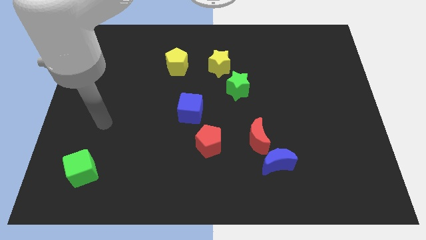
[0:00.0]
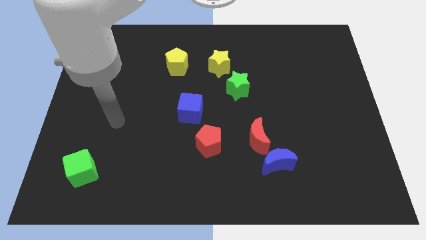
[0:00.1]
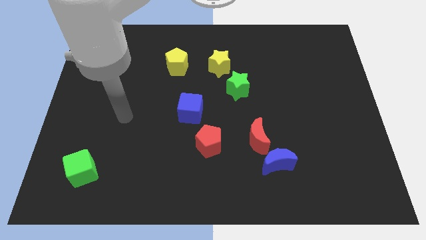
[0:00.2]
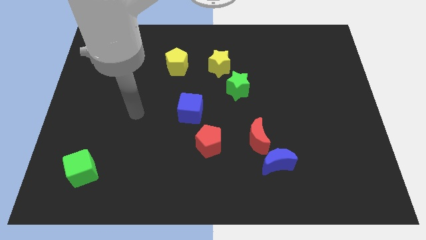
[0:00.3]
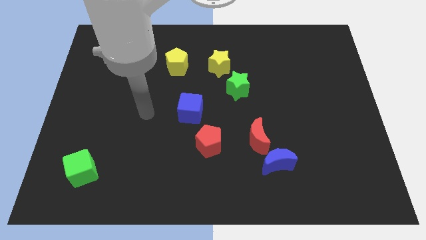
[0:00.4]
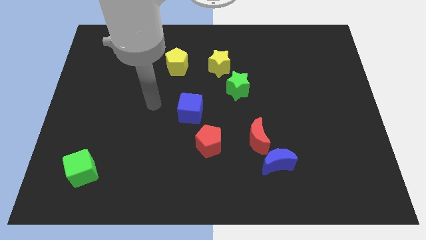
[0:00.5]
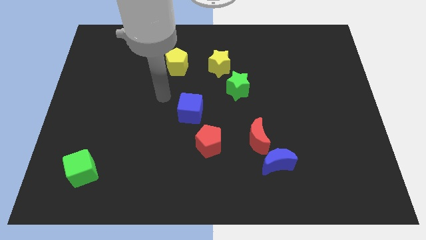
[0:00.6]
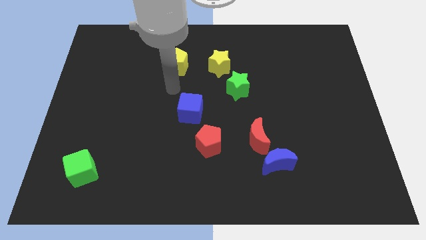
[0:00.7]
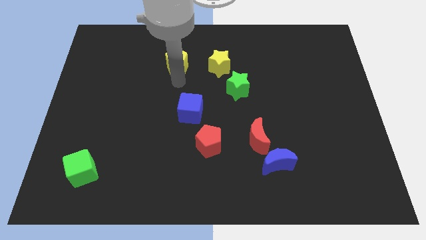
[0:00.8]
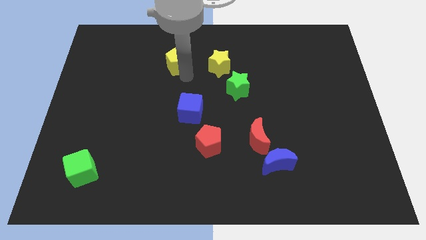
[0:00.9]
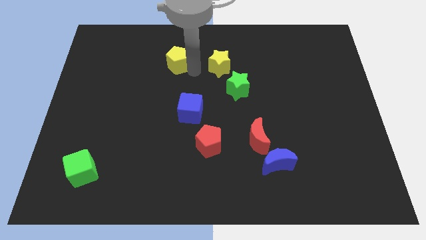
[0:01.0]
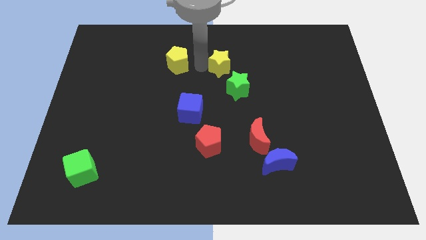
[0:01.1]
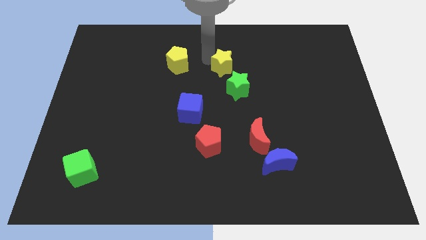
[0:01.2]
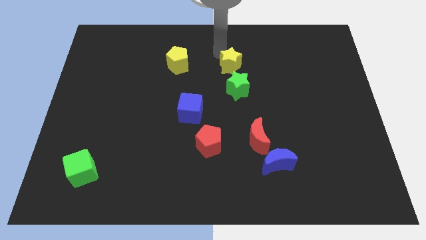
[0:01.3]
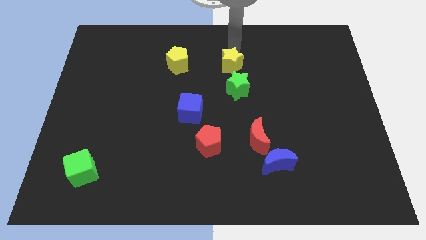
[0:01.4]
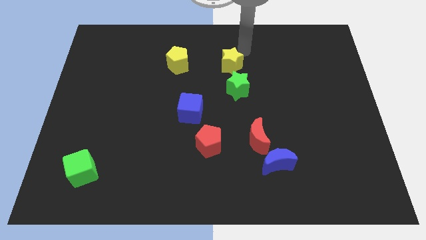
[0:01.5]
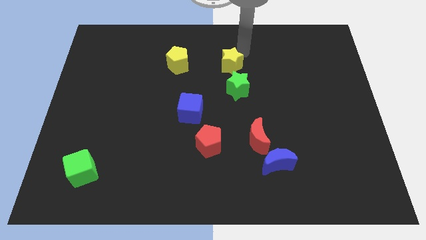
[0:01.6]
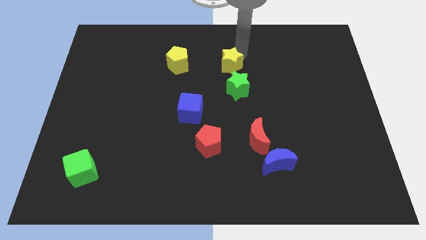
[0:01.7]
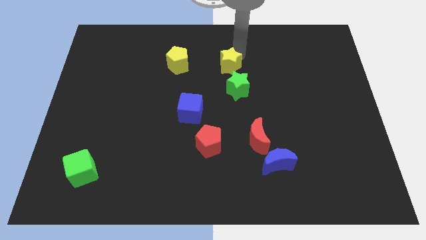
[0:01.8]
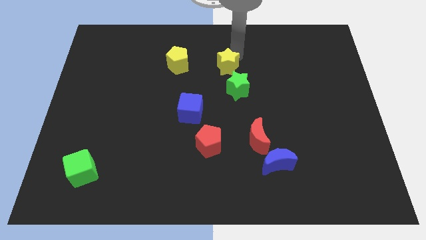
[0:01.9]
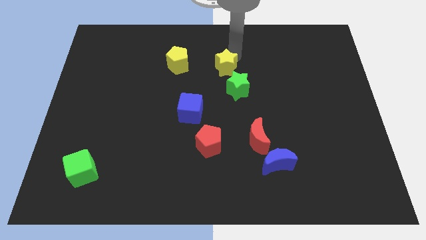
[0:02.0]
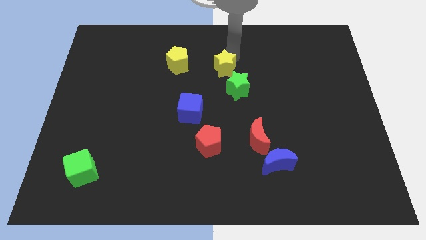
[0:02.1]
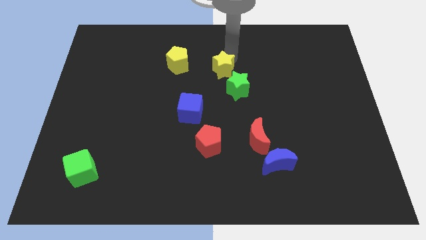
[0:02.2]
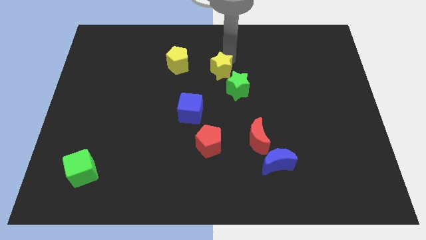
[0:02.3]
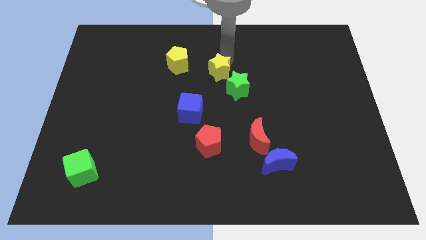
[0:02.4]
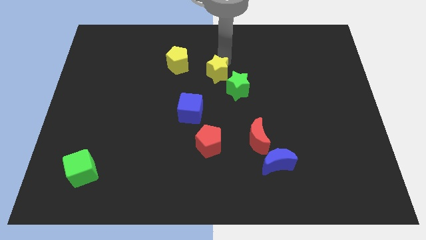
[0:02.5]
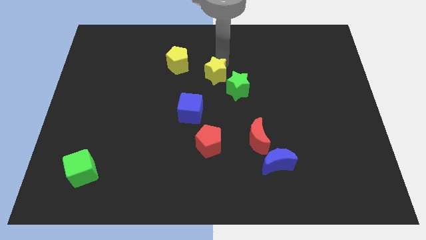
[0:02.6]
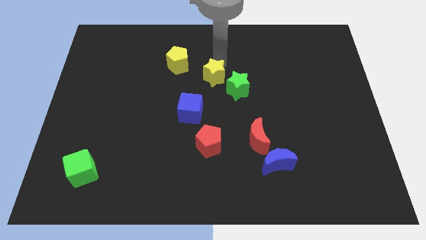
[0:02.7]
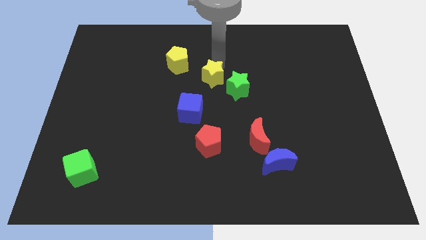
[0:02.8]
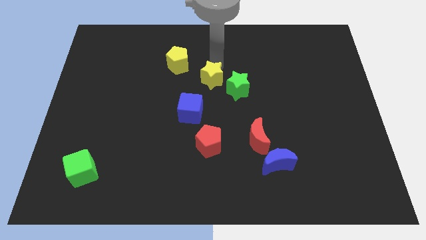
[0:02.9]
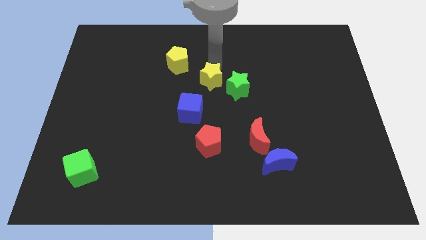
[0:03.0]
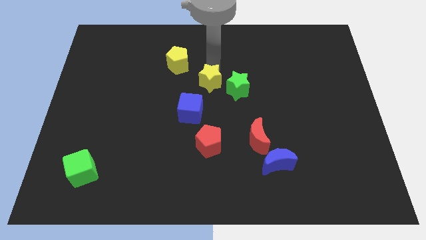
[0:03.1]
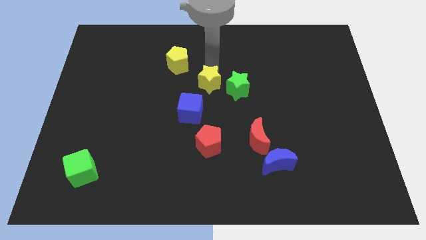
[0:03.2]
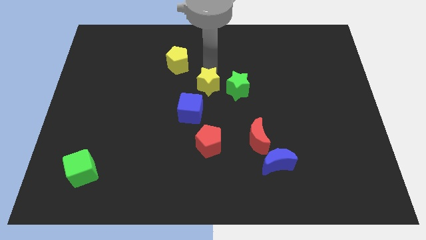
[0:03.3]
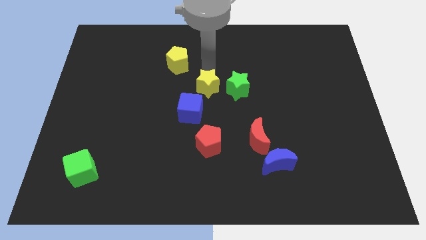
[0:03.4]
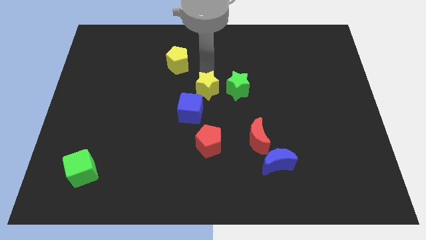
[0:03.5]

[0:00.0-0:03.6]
slide the yellow star somewhat downwards

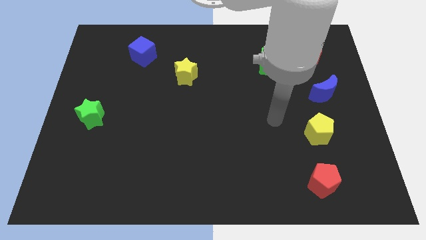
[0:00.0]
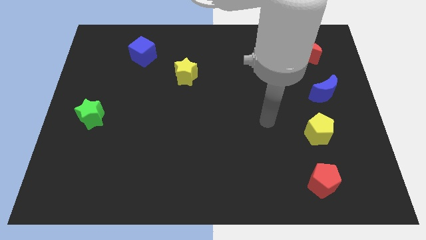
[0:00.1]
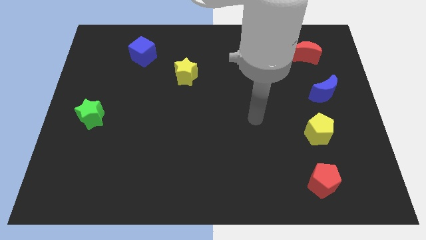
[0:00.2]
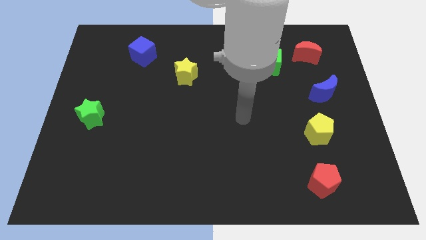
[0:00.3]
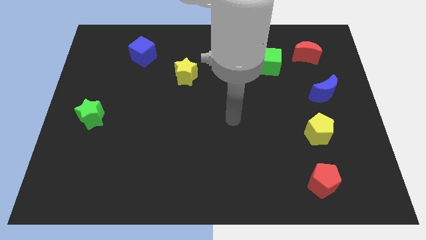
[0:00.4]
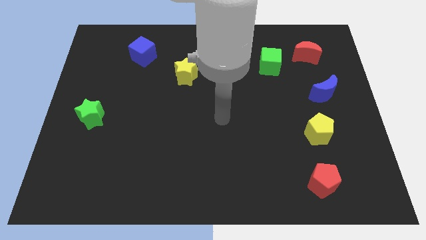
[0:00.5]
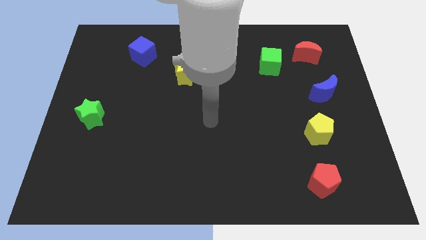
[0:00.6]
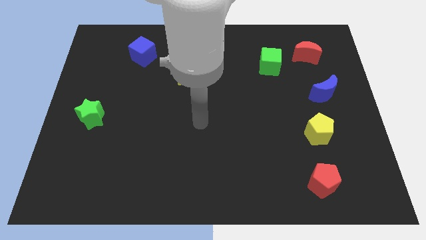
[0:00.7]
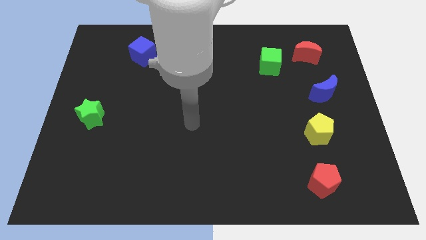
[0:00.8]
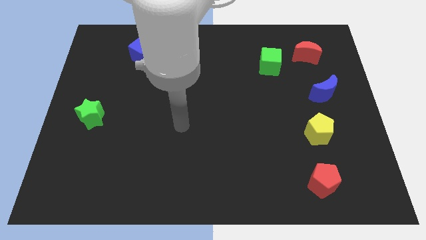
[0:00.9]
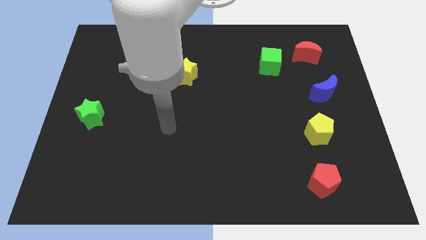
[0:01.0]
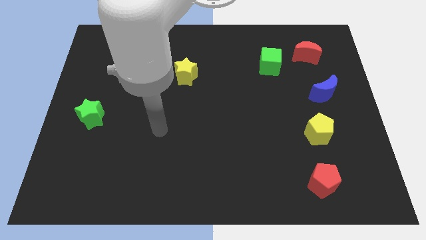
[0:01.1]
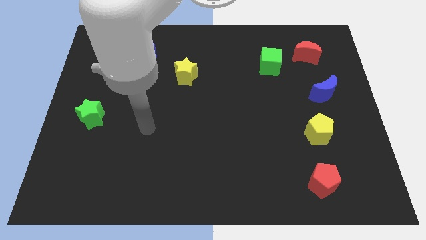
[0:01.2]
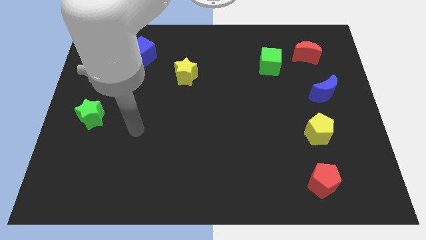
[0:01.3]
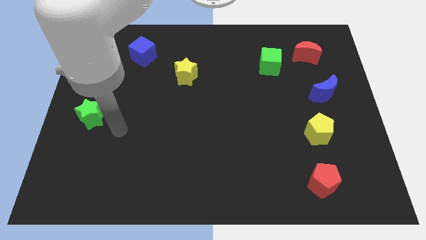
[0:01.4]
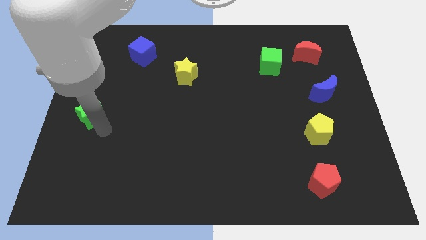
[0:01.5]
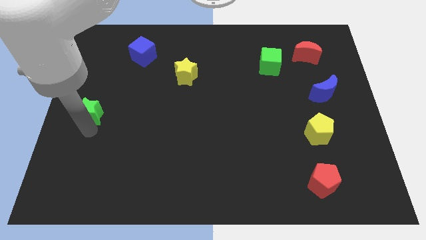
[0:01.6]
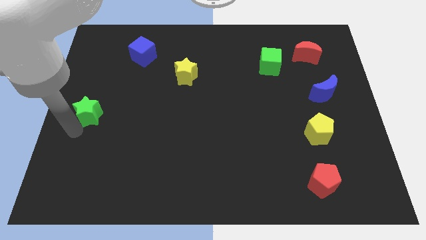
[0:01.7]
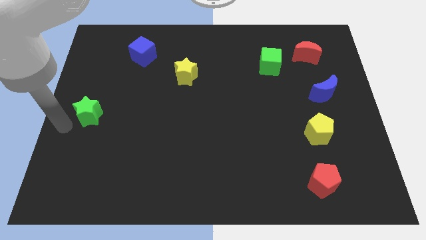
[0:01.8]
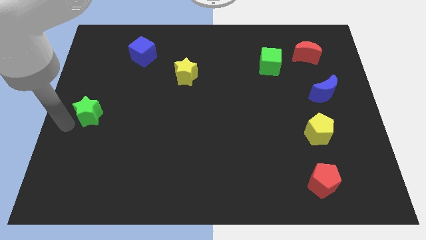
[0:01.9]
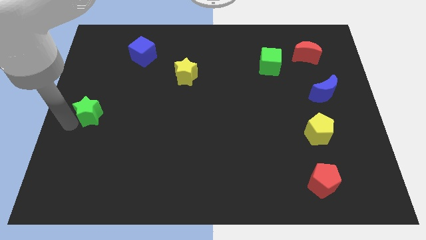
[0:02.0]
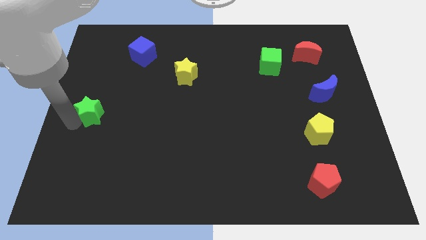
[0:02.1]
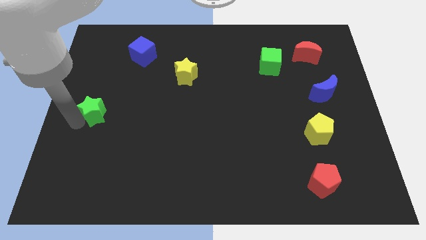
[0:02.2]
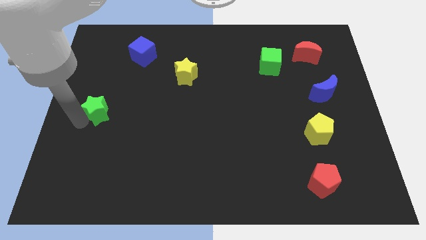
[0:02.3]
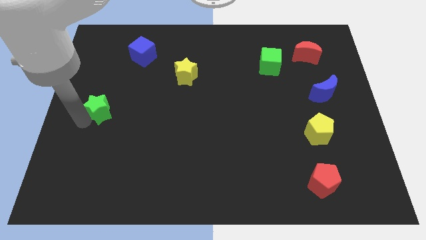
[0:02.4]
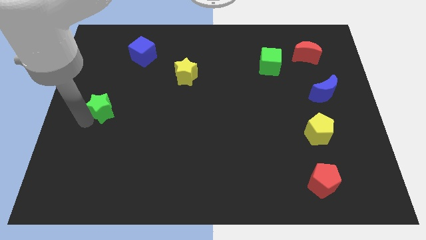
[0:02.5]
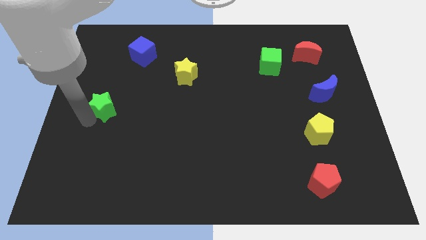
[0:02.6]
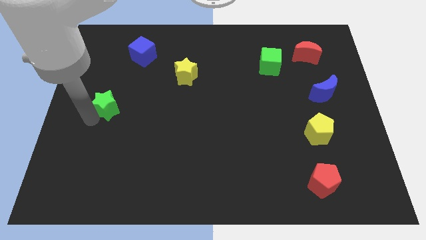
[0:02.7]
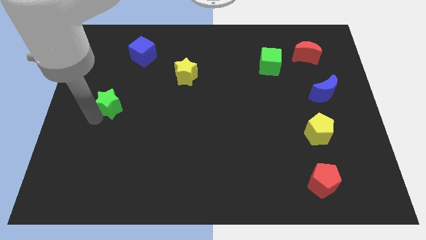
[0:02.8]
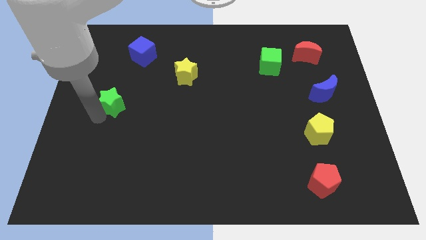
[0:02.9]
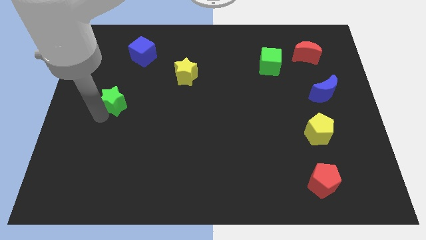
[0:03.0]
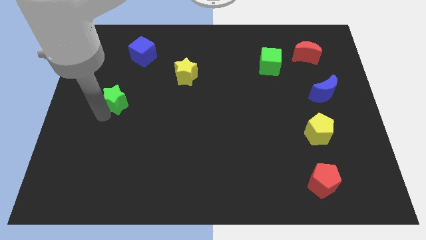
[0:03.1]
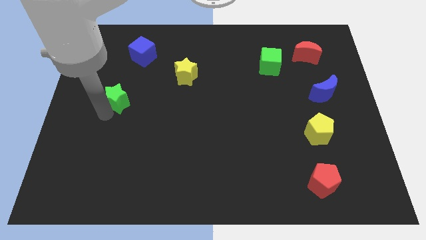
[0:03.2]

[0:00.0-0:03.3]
slightly push the green star upwards and right diagonally

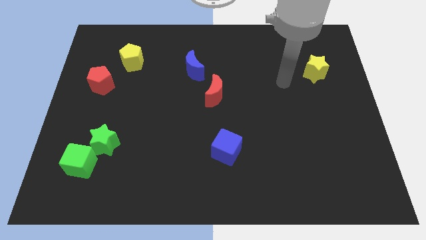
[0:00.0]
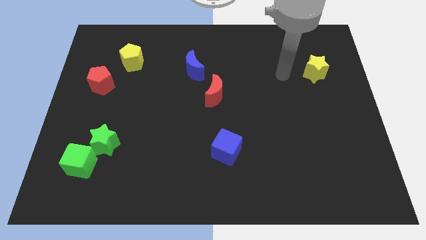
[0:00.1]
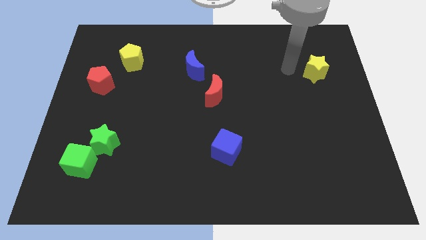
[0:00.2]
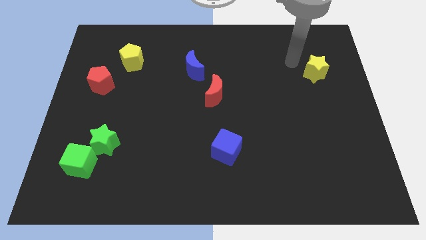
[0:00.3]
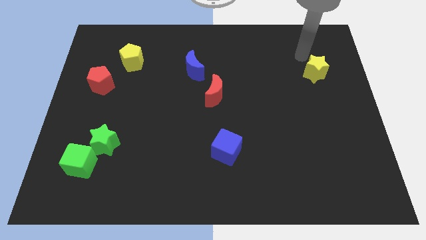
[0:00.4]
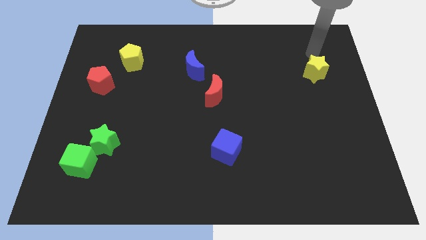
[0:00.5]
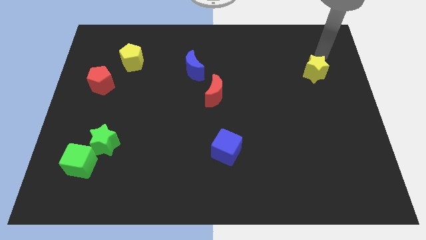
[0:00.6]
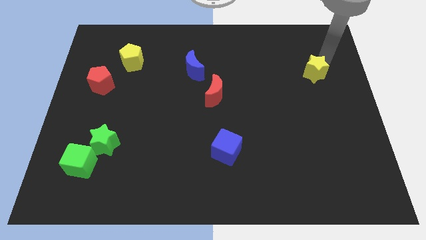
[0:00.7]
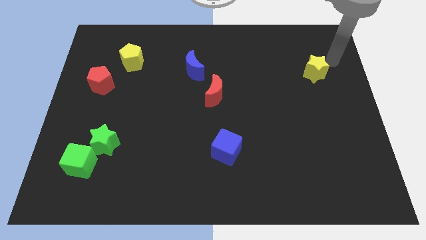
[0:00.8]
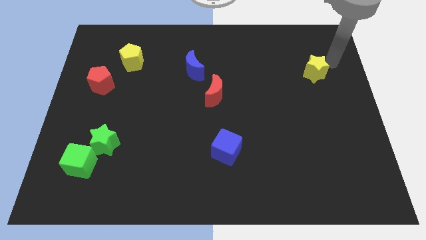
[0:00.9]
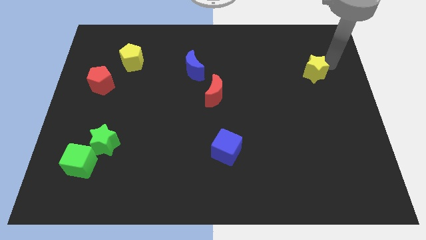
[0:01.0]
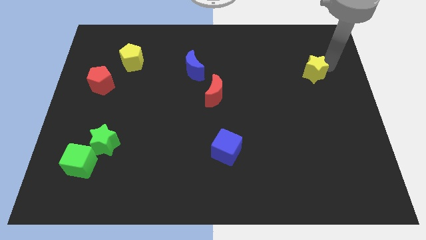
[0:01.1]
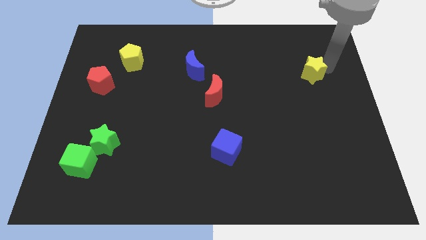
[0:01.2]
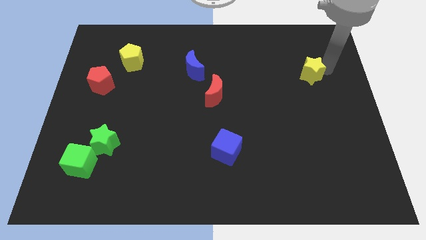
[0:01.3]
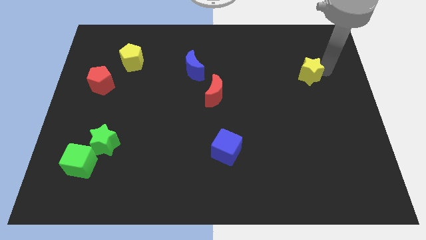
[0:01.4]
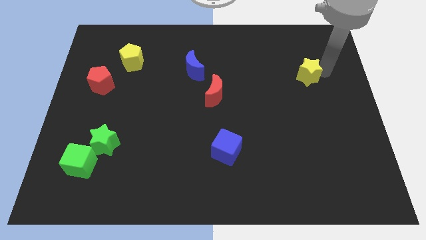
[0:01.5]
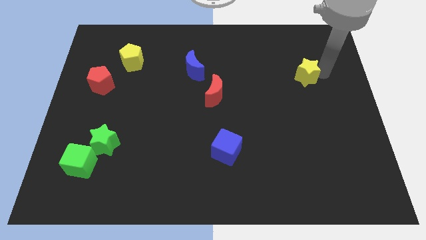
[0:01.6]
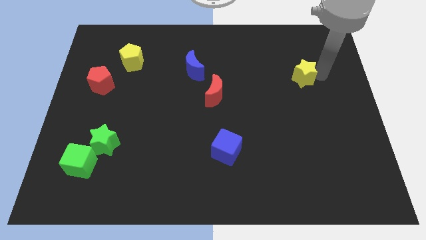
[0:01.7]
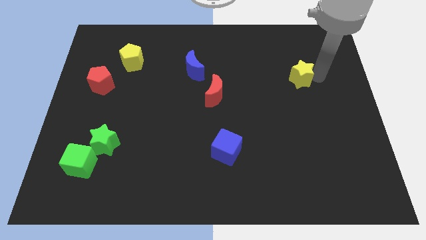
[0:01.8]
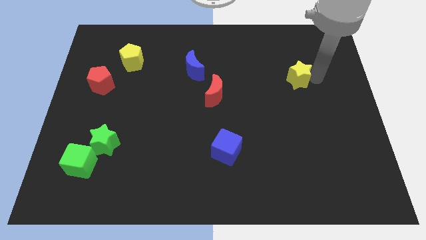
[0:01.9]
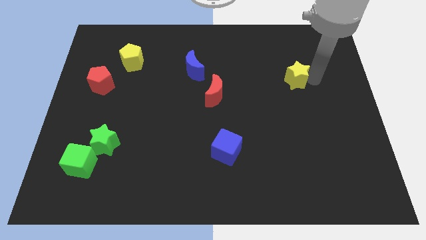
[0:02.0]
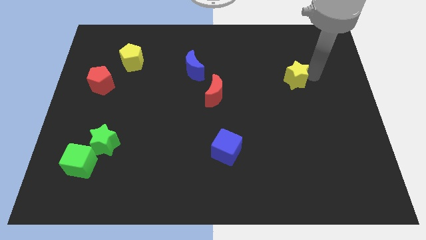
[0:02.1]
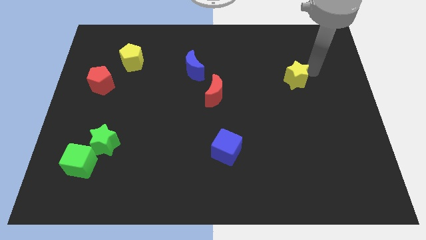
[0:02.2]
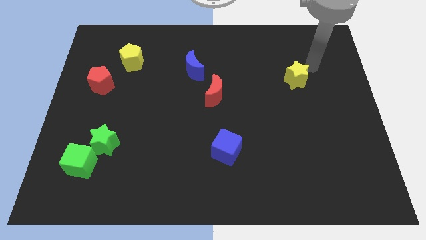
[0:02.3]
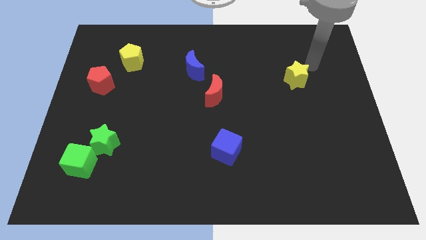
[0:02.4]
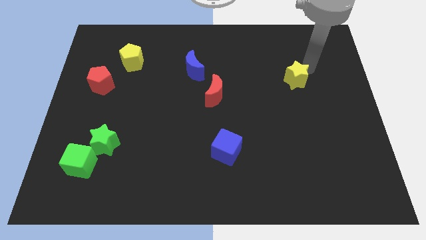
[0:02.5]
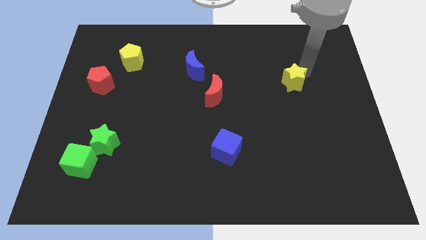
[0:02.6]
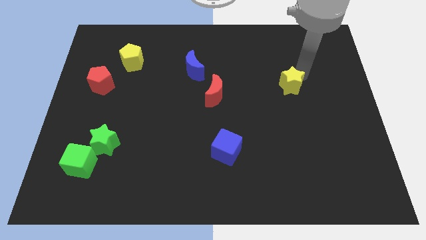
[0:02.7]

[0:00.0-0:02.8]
slightly push the yellow star downwards and to the left
